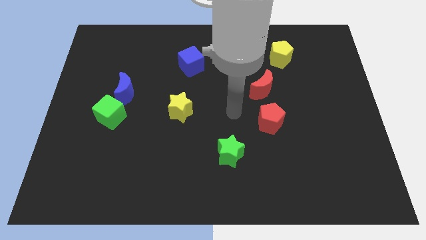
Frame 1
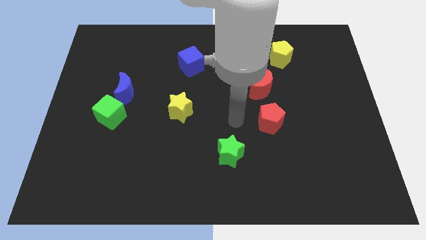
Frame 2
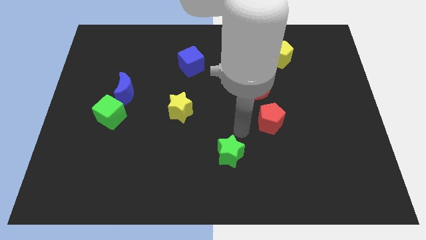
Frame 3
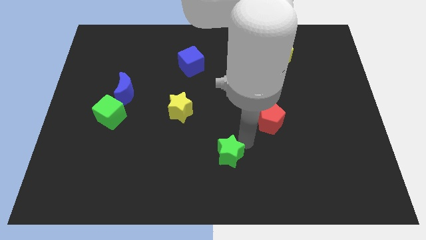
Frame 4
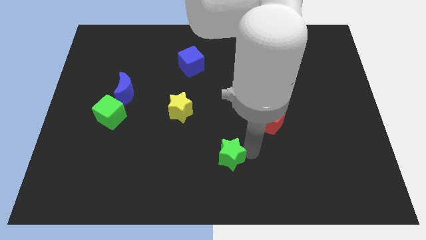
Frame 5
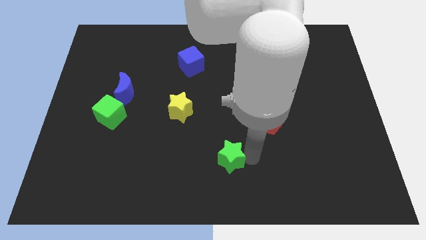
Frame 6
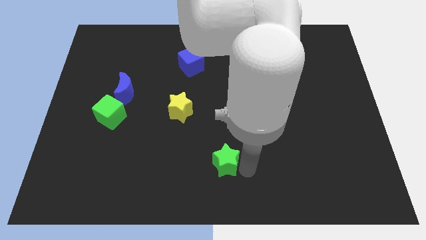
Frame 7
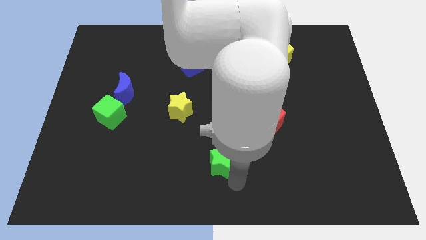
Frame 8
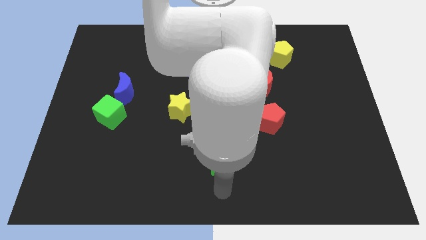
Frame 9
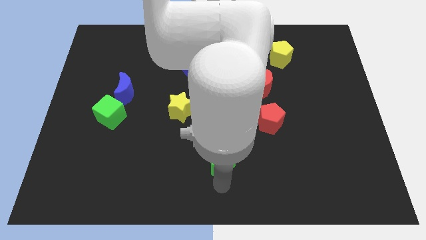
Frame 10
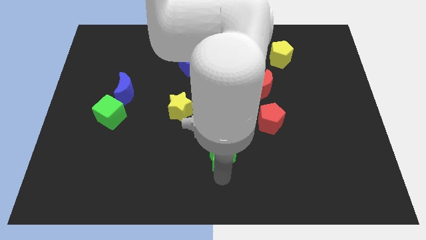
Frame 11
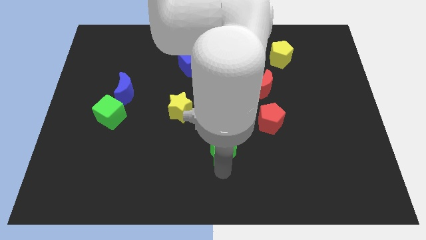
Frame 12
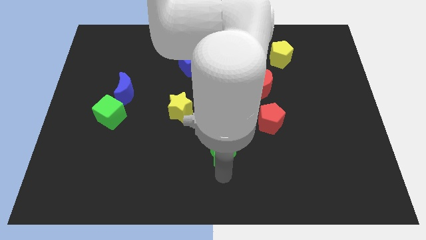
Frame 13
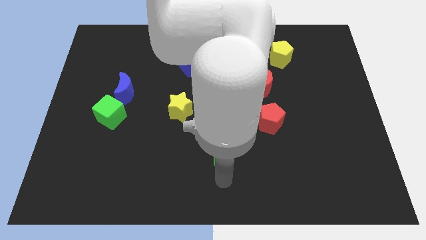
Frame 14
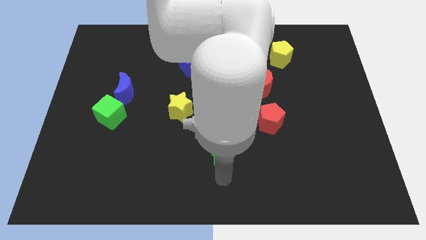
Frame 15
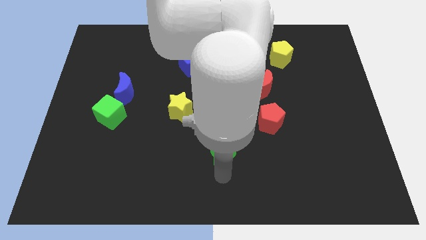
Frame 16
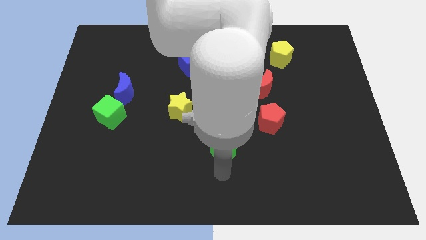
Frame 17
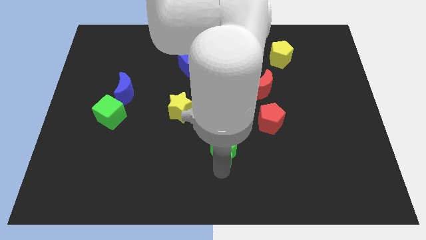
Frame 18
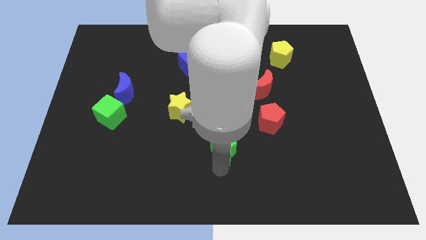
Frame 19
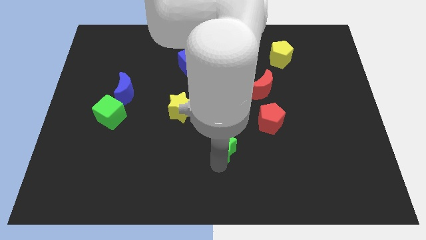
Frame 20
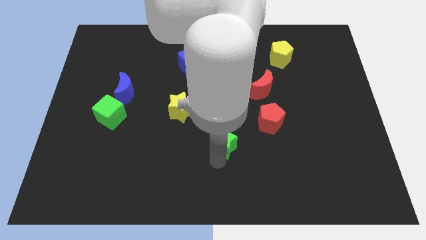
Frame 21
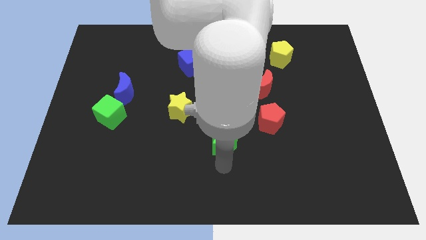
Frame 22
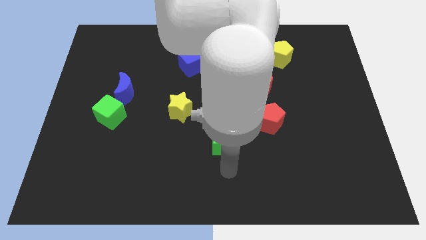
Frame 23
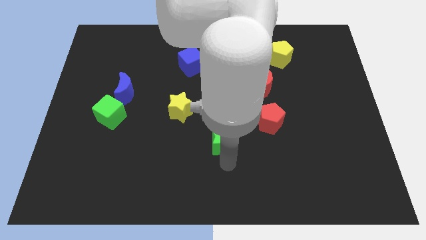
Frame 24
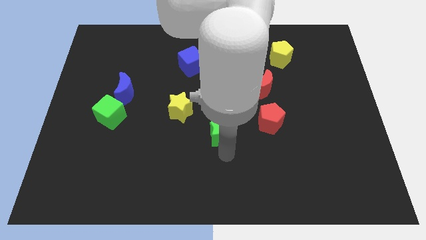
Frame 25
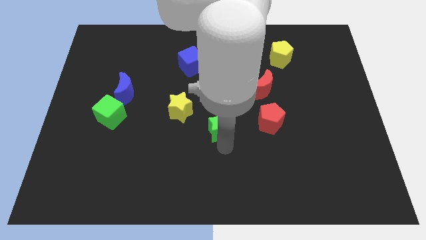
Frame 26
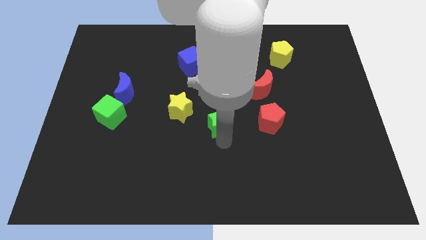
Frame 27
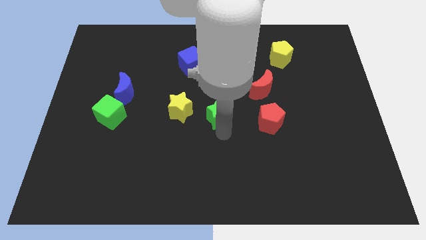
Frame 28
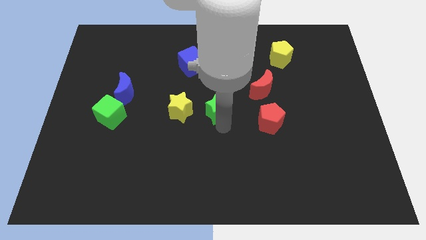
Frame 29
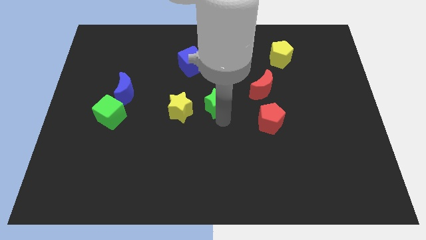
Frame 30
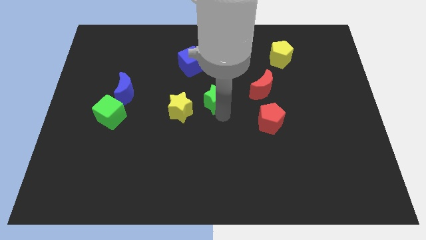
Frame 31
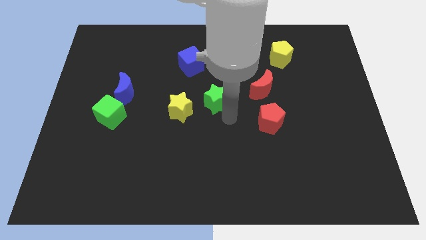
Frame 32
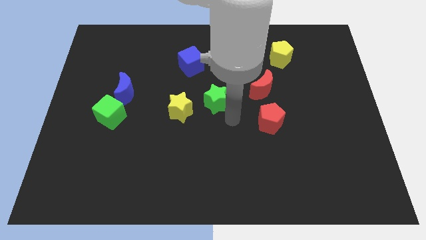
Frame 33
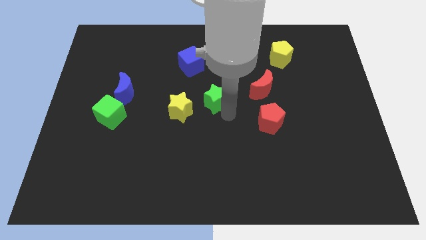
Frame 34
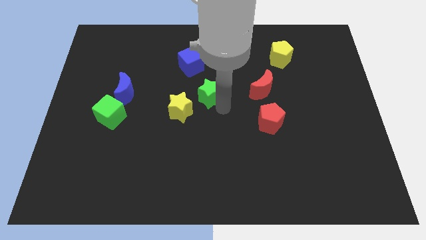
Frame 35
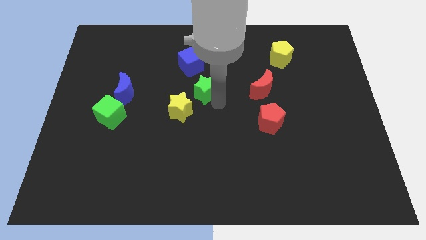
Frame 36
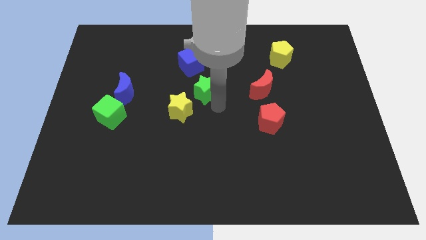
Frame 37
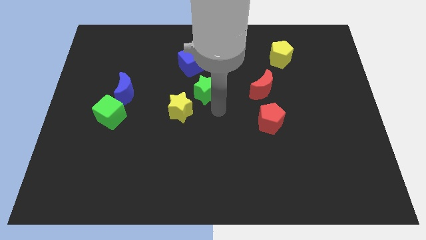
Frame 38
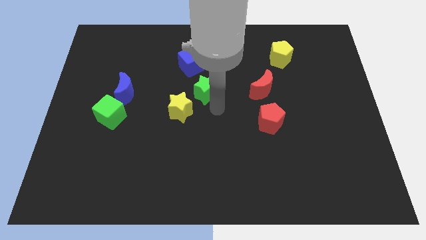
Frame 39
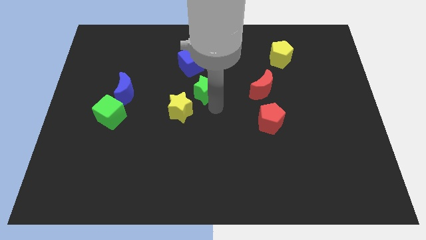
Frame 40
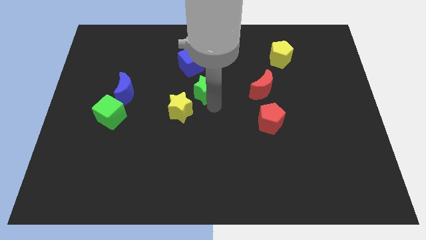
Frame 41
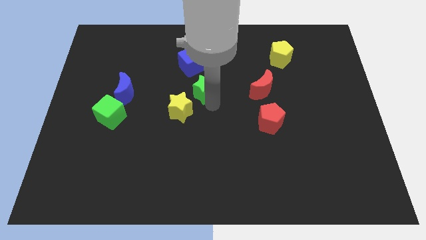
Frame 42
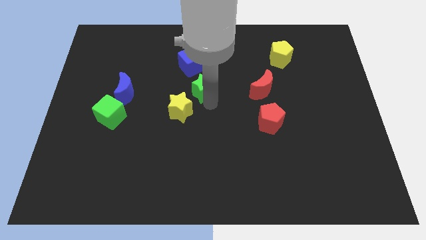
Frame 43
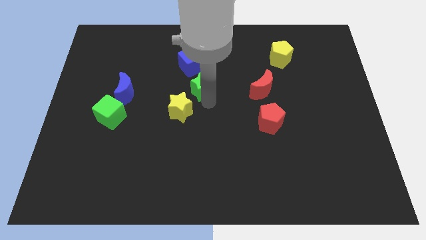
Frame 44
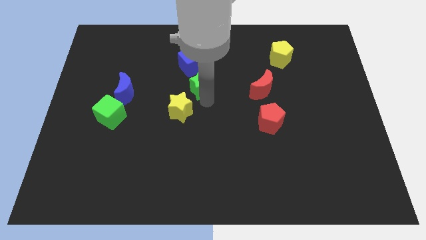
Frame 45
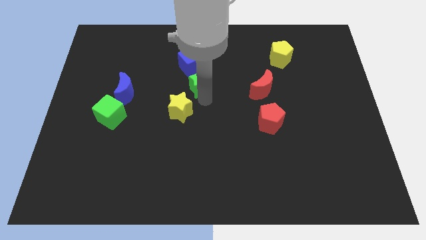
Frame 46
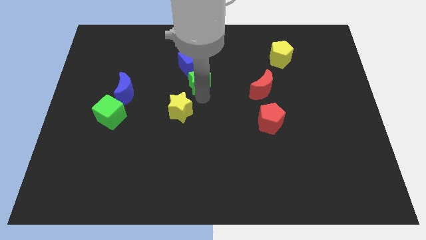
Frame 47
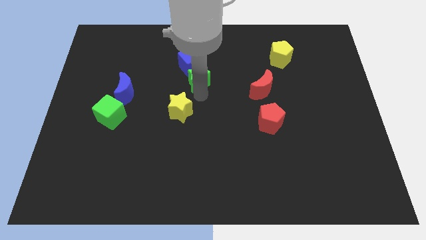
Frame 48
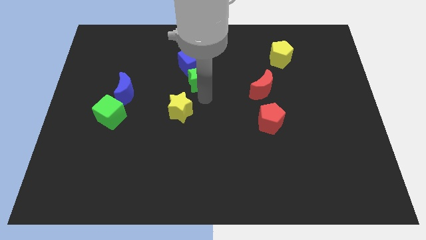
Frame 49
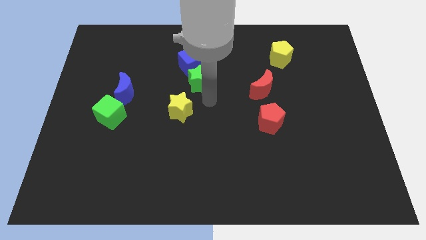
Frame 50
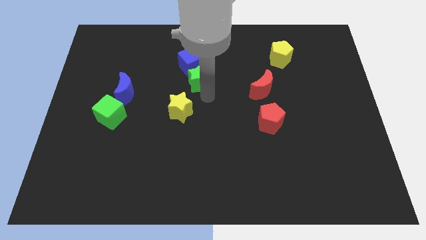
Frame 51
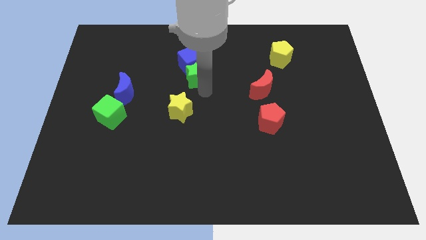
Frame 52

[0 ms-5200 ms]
push the green star next to the blue cube

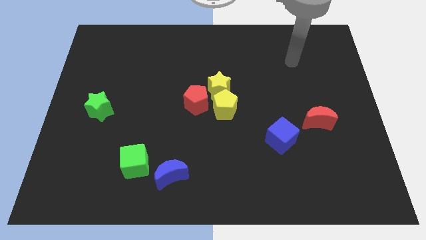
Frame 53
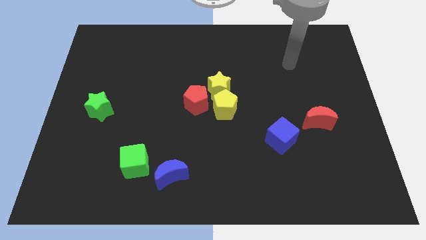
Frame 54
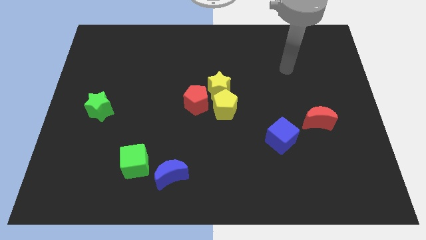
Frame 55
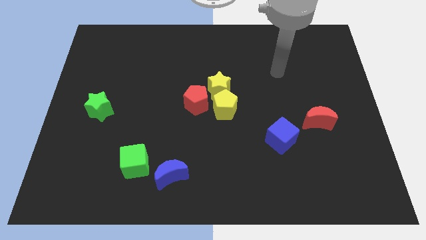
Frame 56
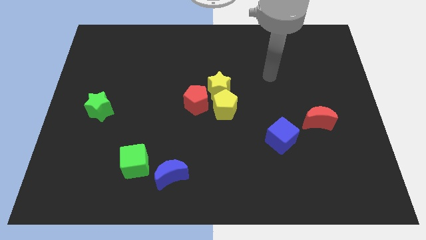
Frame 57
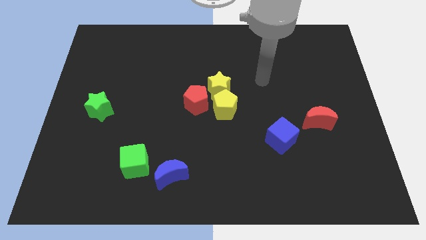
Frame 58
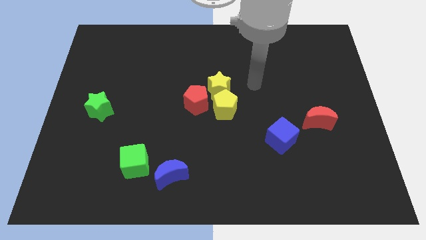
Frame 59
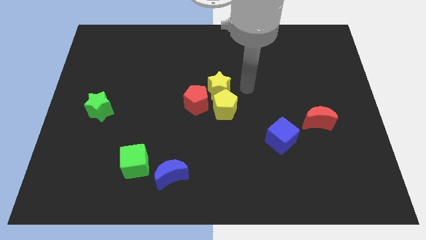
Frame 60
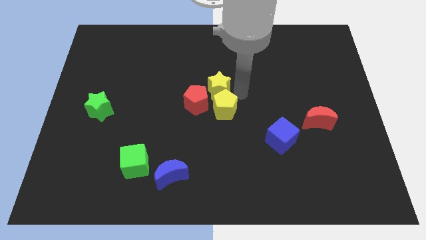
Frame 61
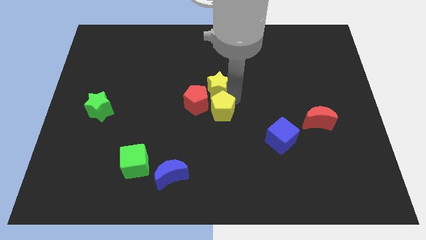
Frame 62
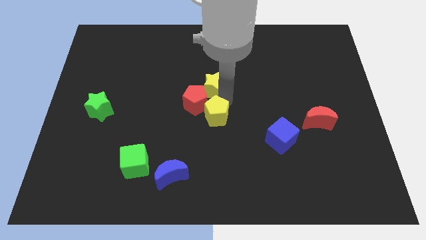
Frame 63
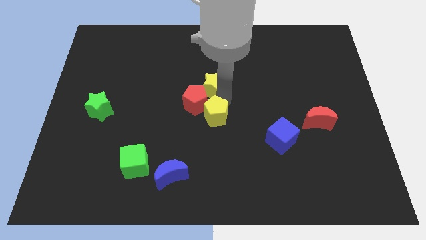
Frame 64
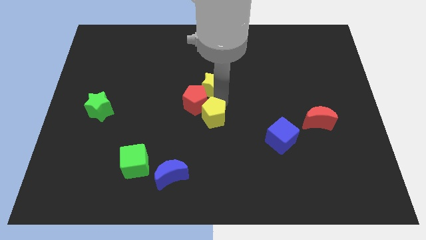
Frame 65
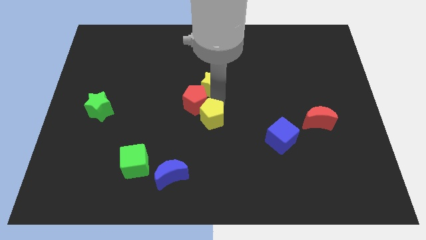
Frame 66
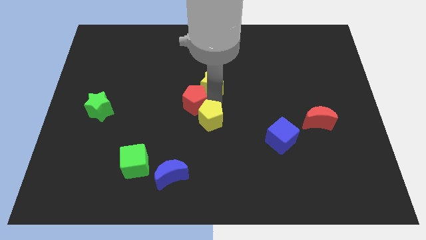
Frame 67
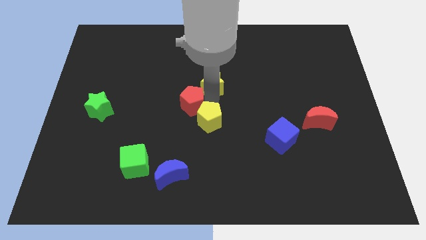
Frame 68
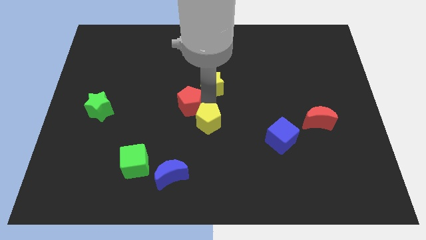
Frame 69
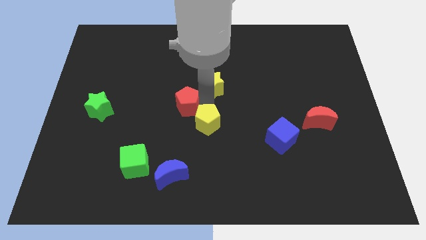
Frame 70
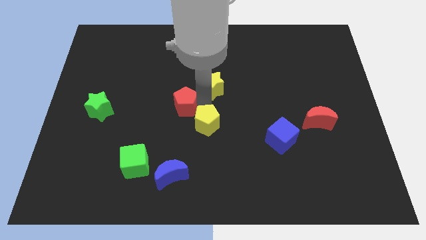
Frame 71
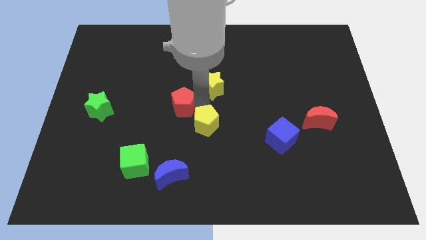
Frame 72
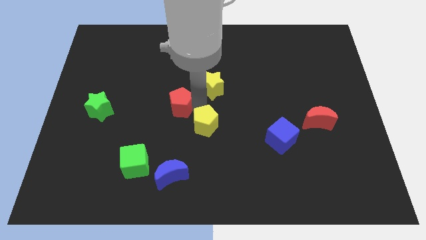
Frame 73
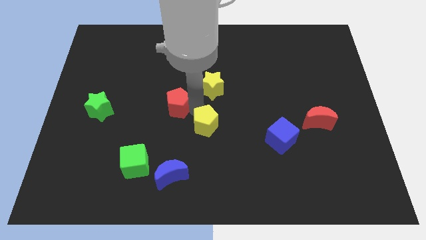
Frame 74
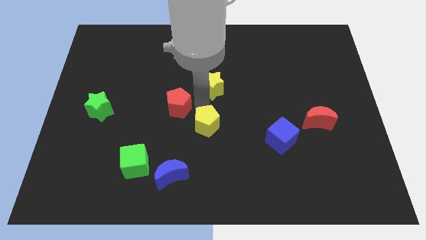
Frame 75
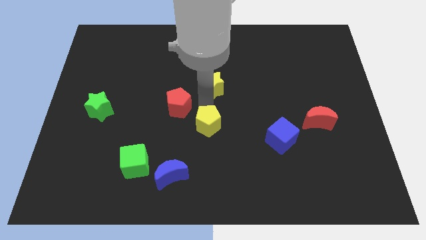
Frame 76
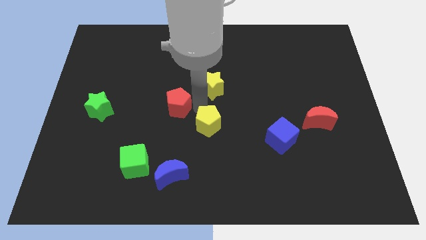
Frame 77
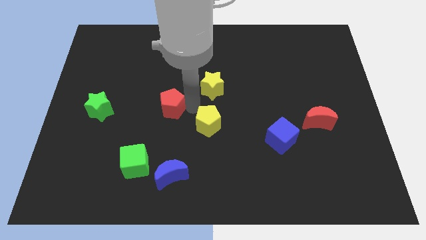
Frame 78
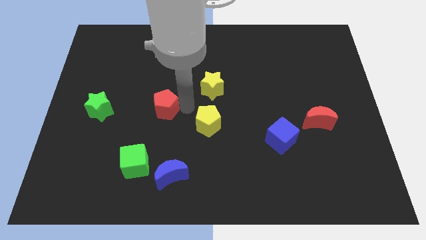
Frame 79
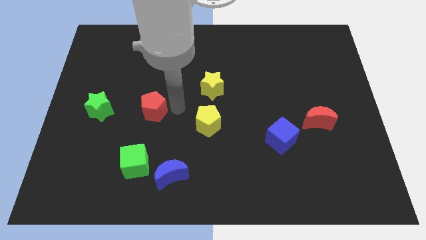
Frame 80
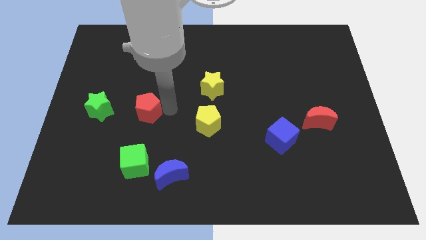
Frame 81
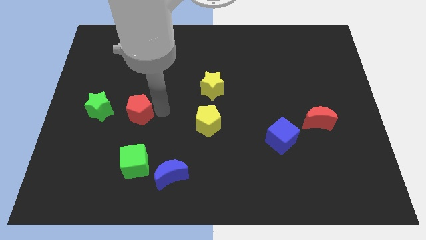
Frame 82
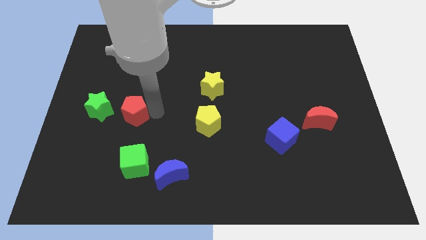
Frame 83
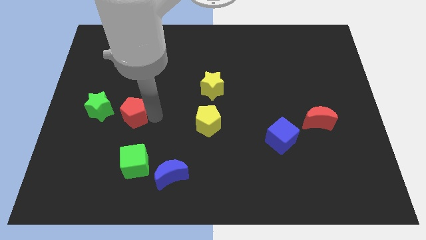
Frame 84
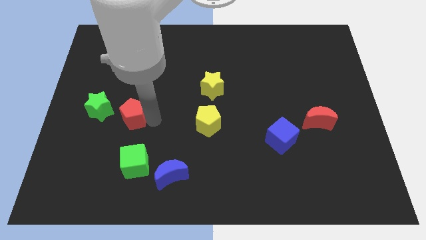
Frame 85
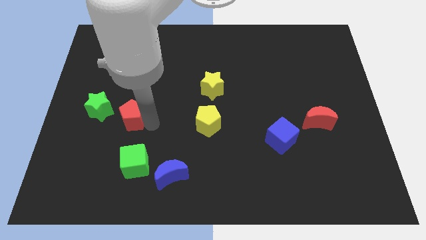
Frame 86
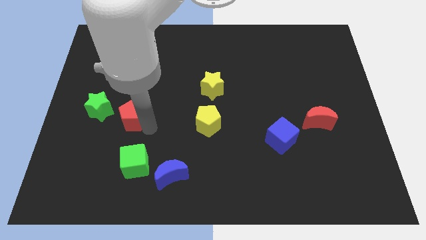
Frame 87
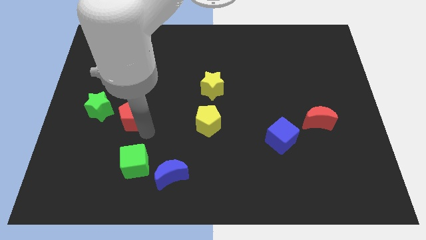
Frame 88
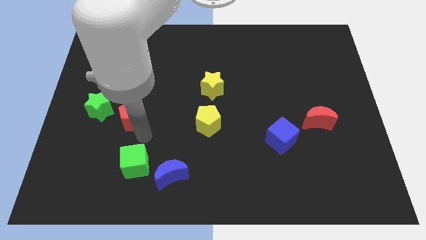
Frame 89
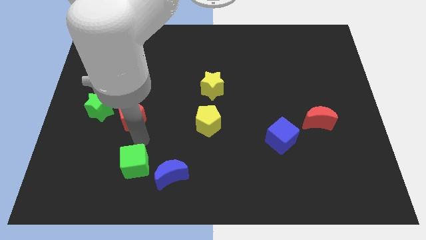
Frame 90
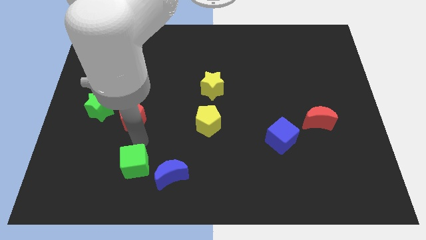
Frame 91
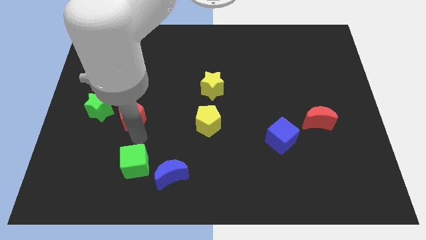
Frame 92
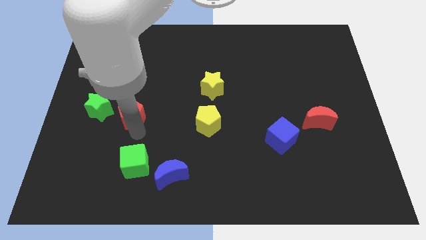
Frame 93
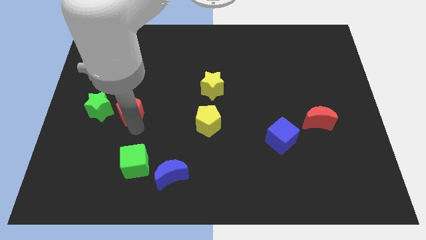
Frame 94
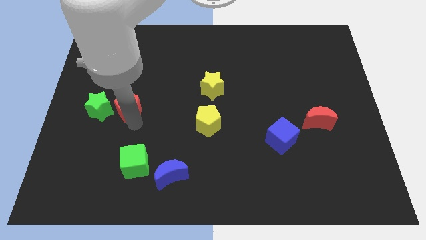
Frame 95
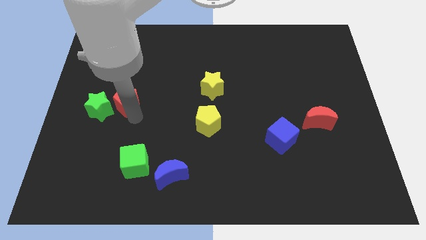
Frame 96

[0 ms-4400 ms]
put the red pentagon close to the green star
